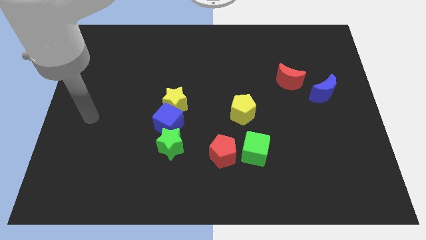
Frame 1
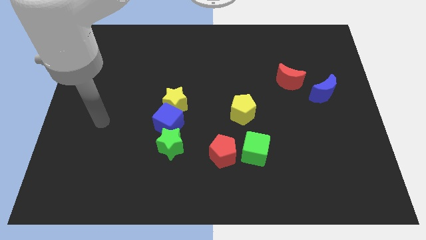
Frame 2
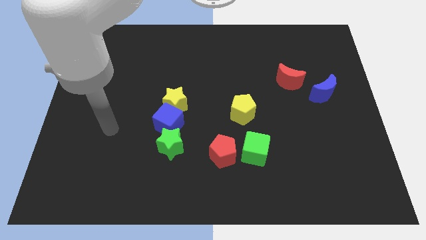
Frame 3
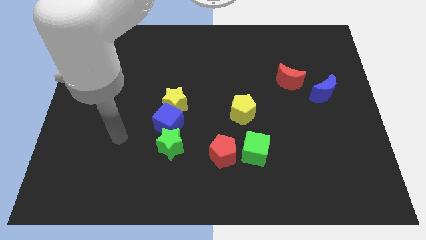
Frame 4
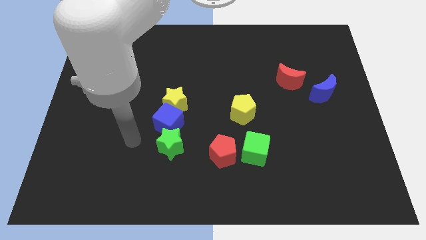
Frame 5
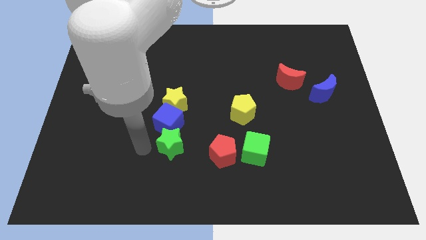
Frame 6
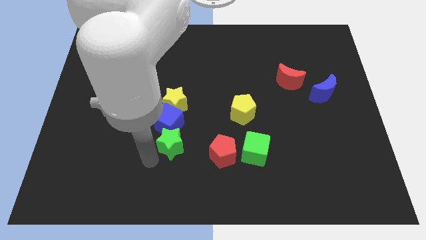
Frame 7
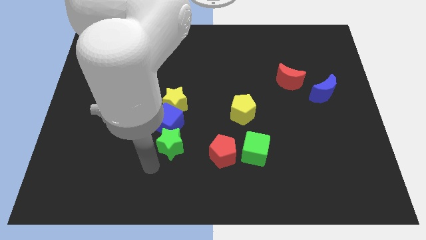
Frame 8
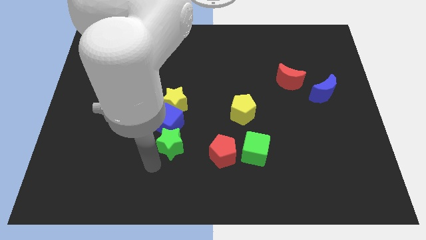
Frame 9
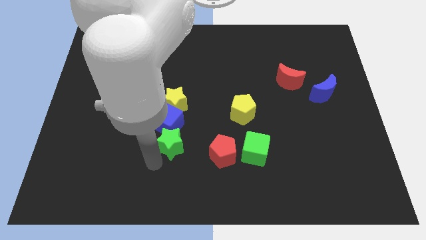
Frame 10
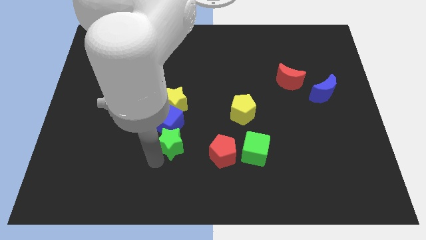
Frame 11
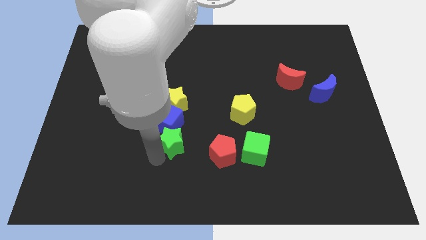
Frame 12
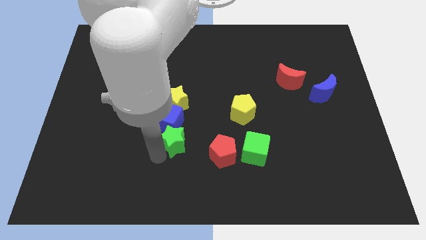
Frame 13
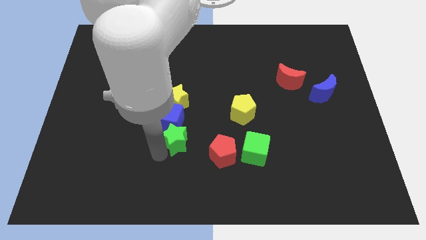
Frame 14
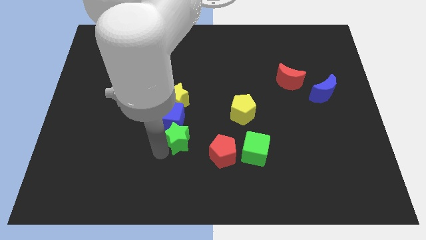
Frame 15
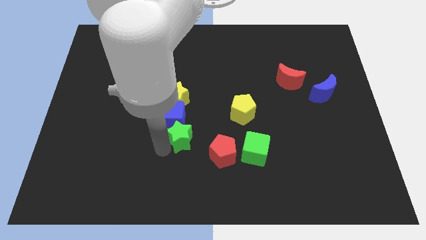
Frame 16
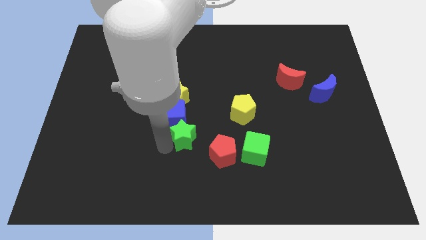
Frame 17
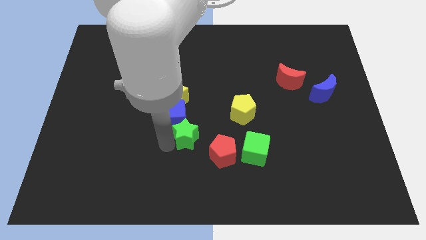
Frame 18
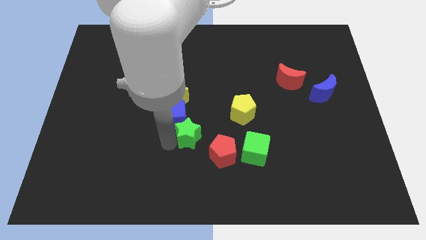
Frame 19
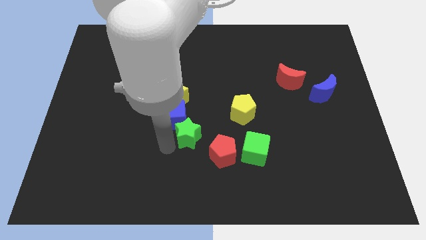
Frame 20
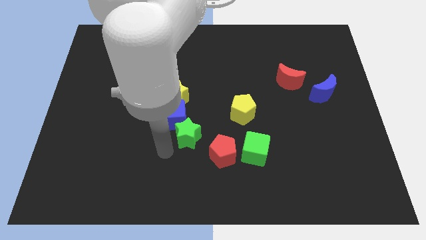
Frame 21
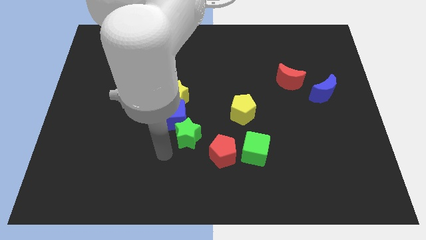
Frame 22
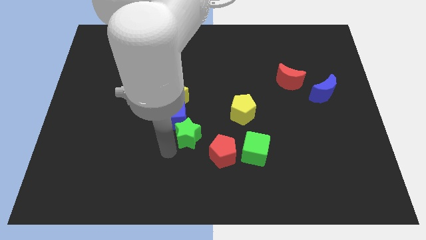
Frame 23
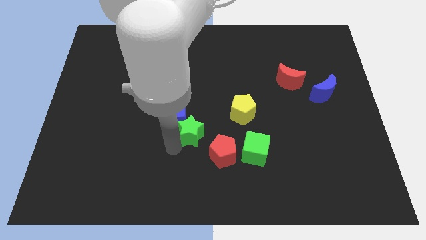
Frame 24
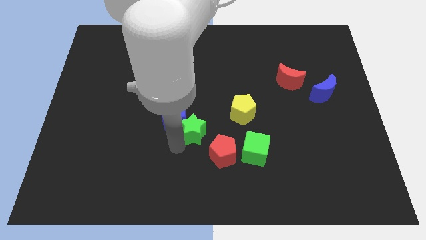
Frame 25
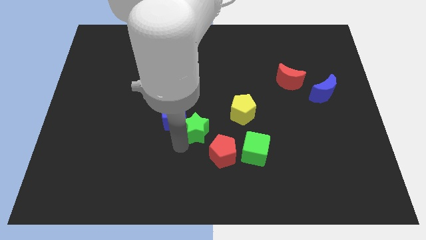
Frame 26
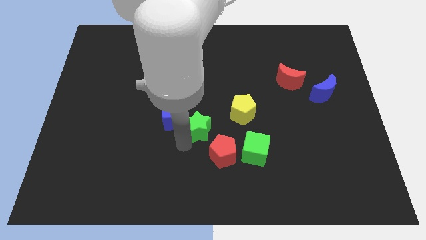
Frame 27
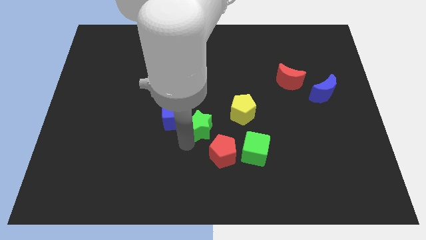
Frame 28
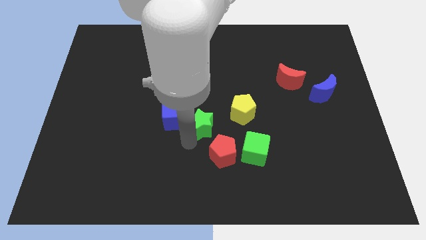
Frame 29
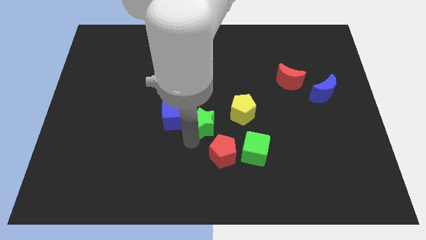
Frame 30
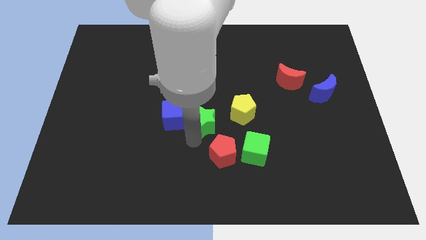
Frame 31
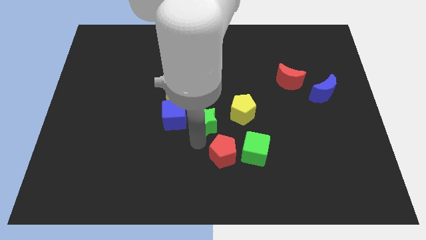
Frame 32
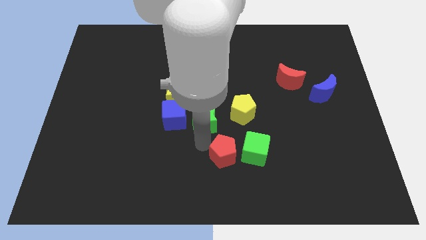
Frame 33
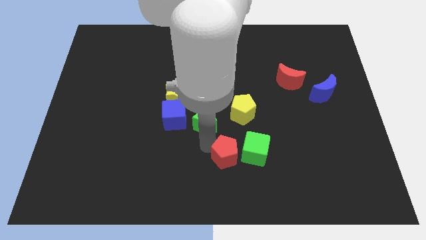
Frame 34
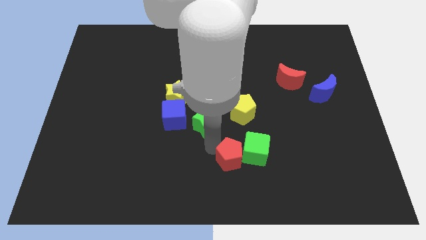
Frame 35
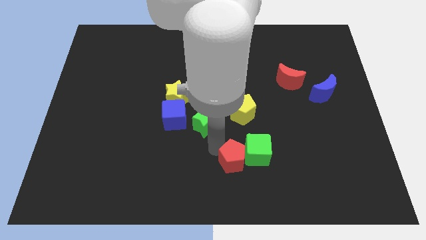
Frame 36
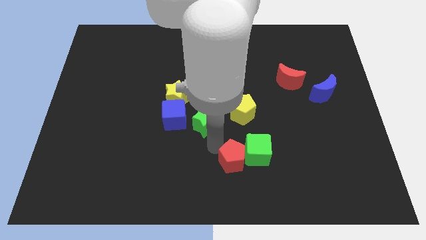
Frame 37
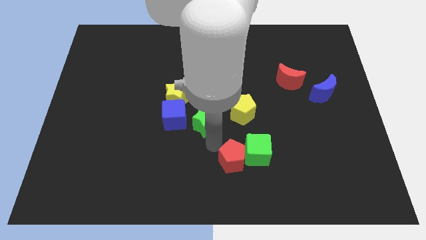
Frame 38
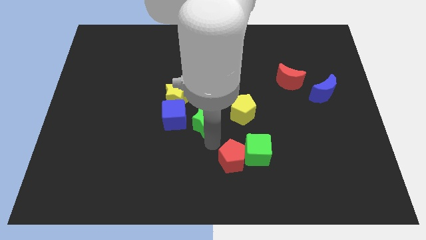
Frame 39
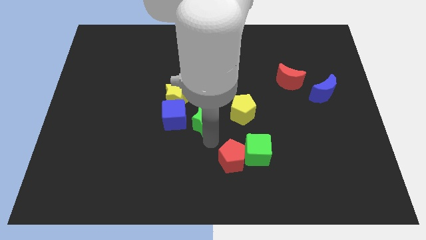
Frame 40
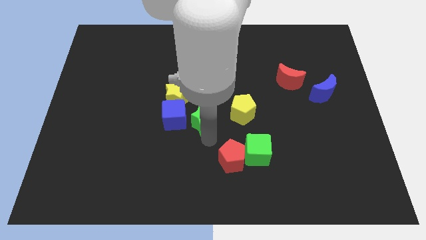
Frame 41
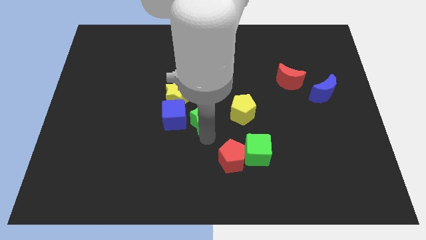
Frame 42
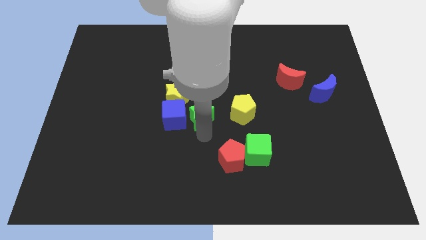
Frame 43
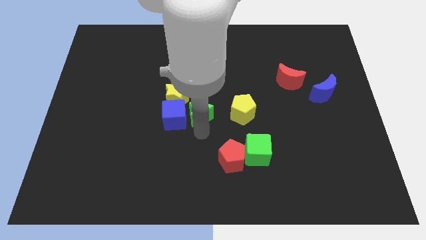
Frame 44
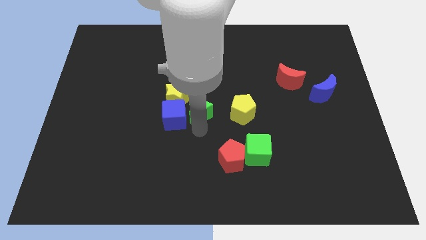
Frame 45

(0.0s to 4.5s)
push the green star upwards somewhat

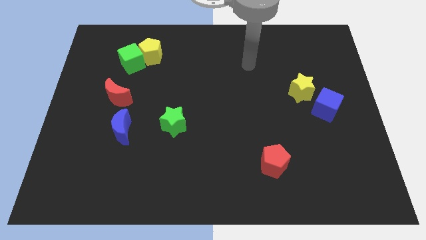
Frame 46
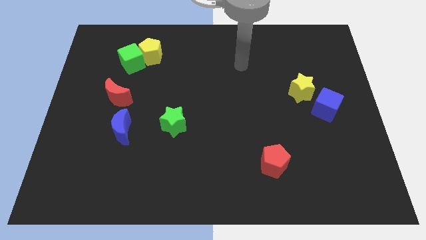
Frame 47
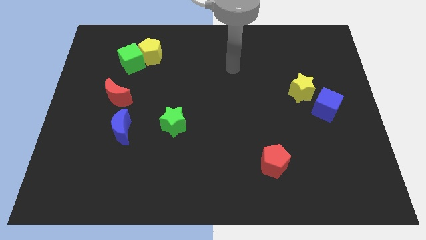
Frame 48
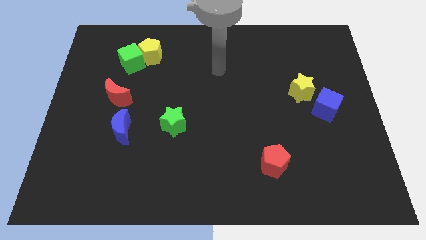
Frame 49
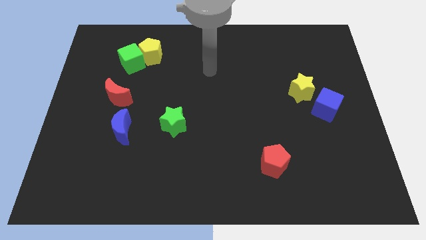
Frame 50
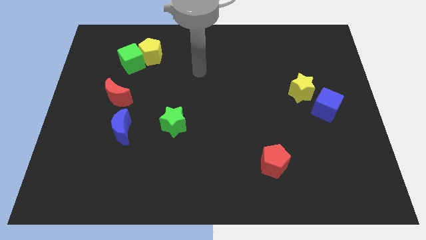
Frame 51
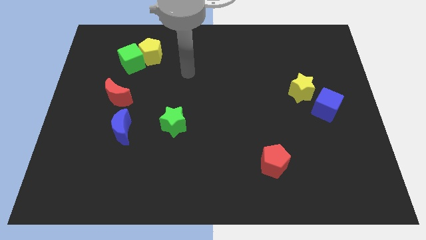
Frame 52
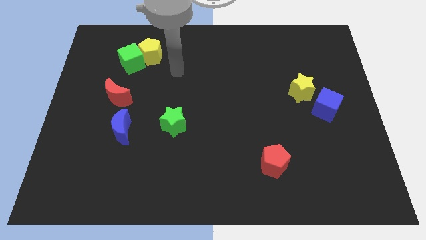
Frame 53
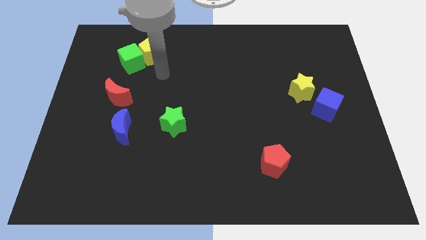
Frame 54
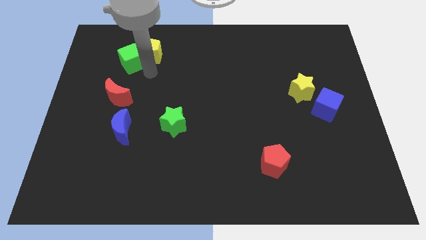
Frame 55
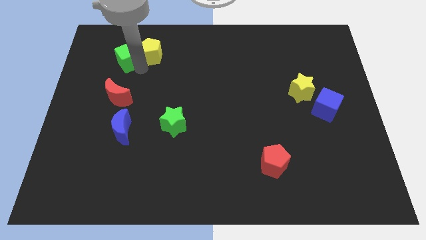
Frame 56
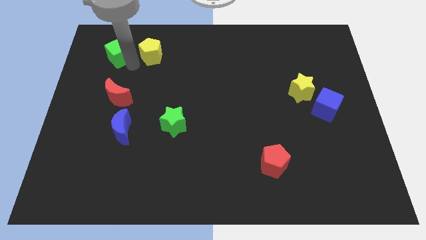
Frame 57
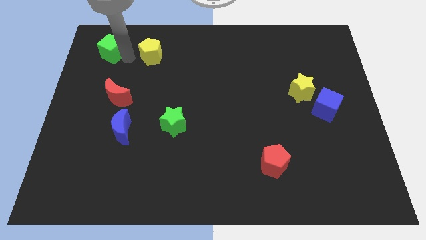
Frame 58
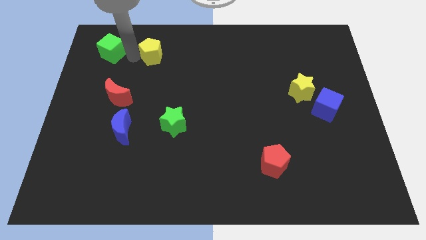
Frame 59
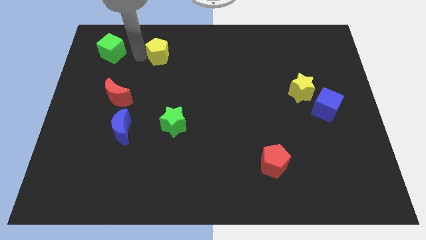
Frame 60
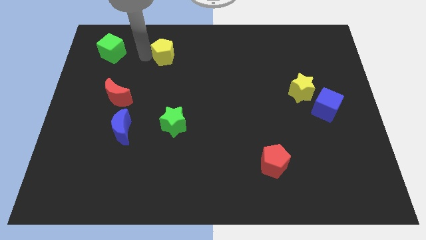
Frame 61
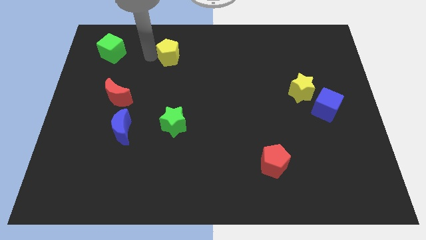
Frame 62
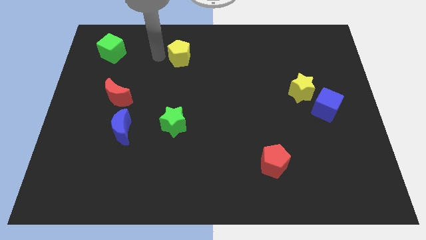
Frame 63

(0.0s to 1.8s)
slightly slide the yellow pentagon to the right

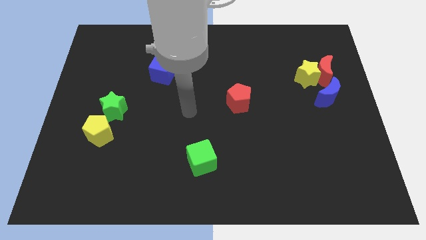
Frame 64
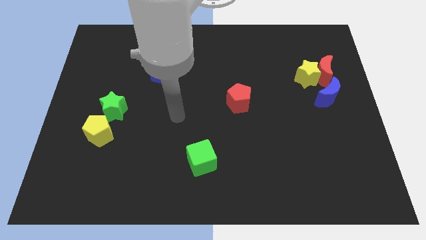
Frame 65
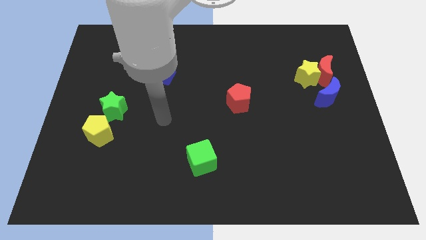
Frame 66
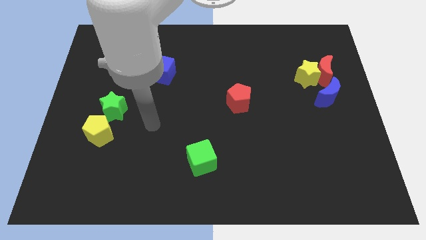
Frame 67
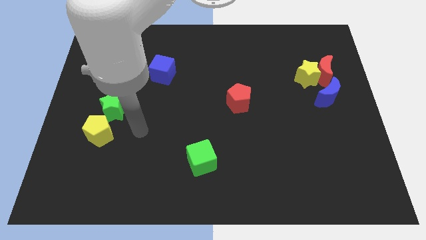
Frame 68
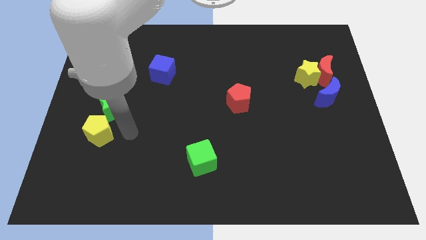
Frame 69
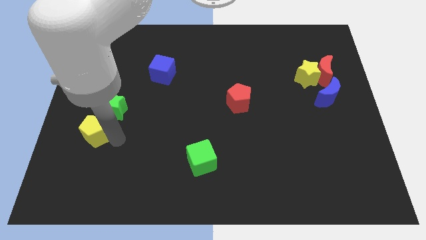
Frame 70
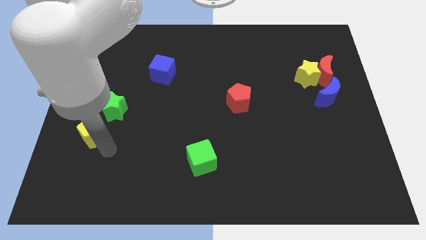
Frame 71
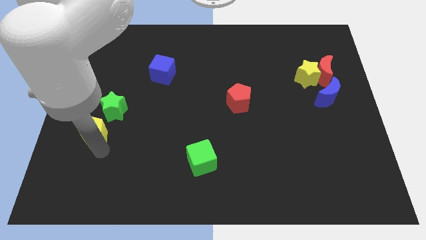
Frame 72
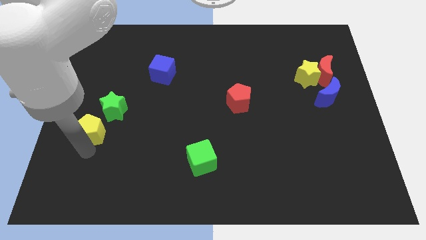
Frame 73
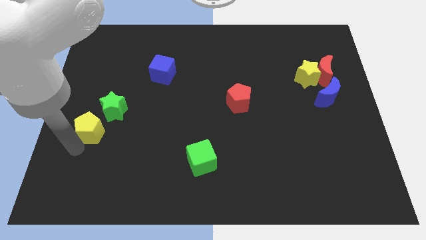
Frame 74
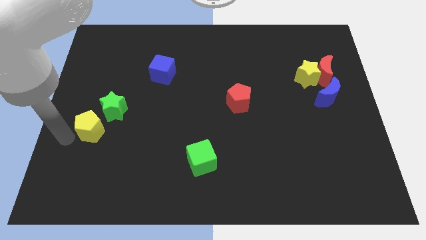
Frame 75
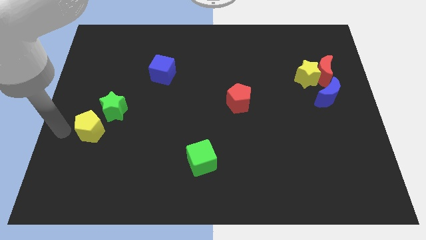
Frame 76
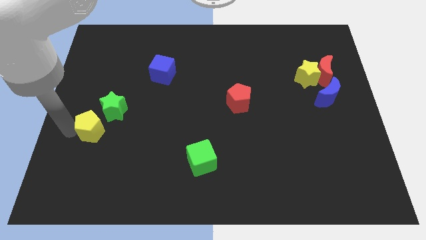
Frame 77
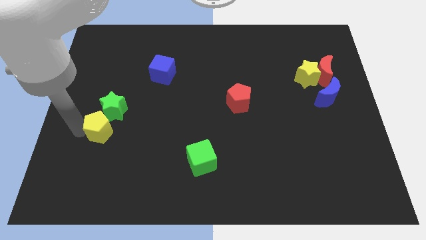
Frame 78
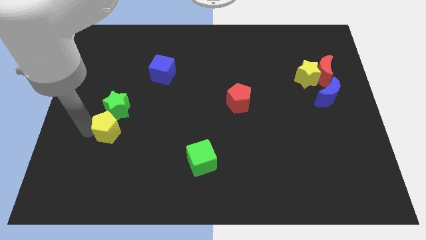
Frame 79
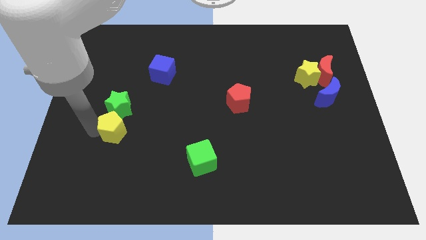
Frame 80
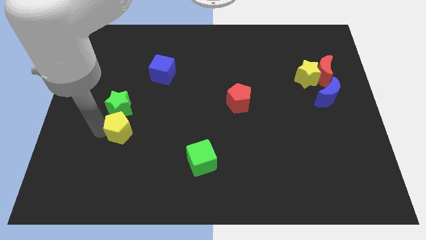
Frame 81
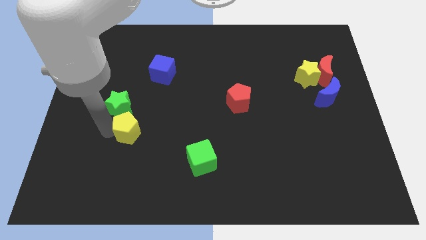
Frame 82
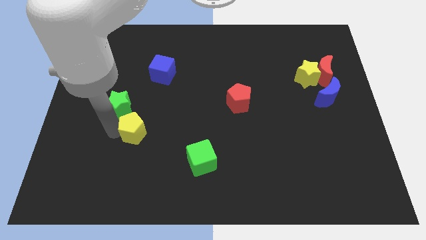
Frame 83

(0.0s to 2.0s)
push the yellow pentagon a little to the right
